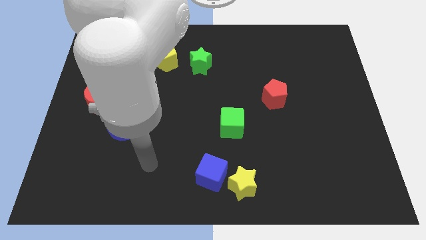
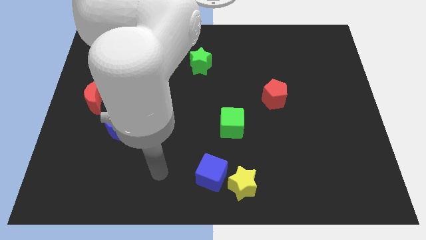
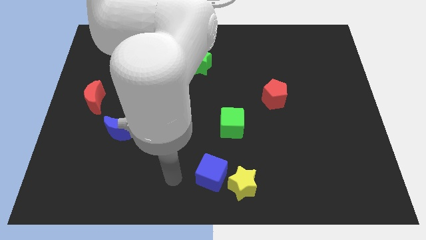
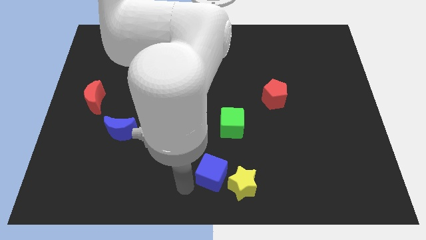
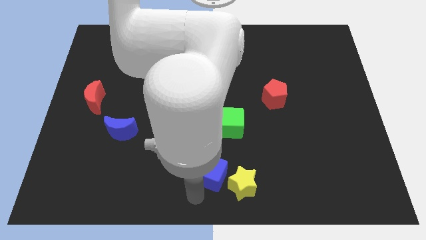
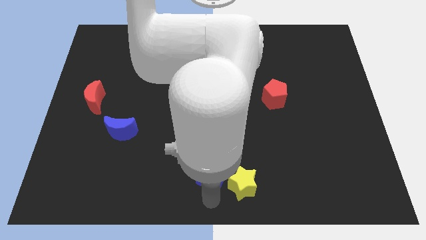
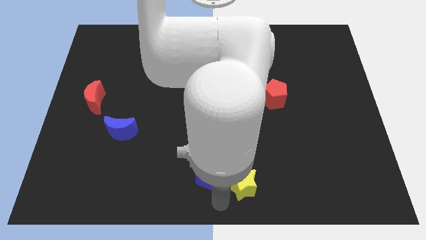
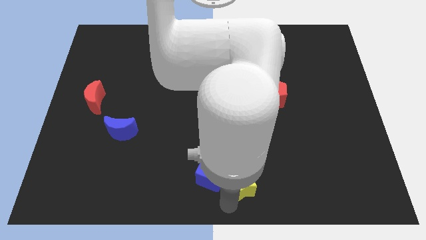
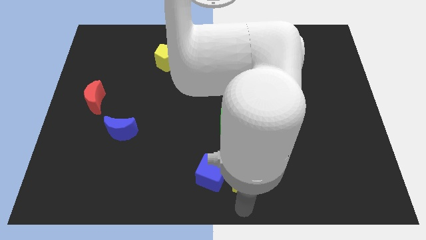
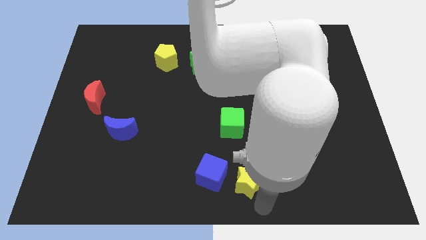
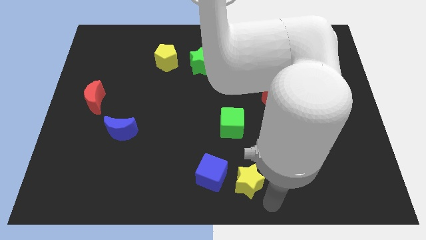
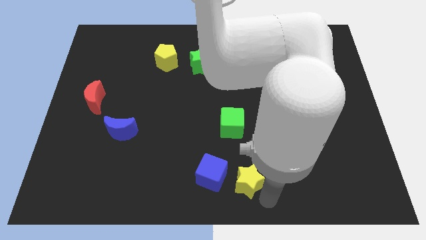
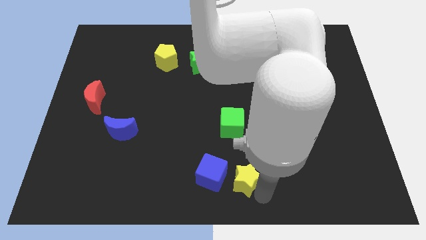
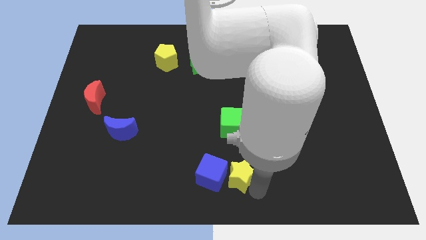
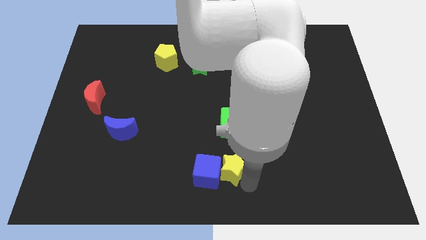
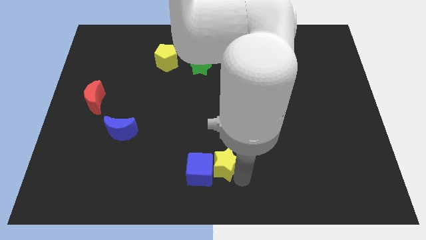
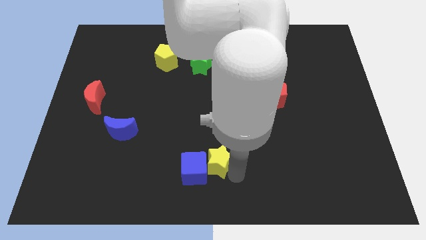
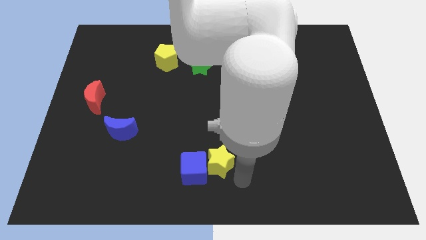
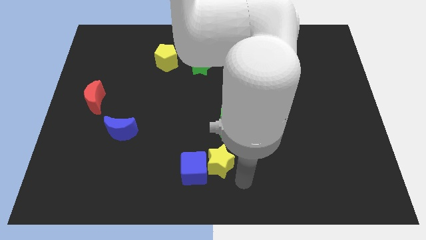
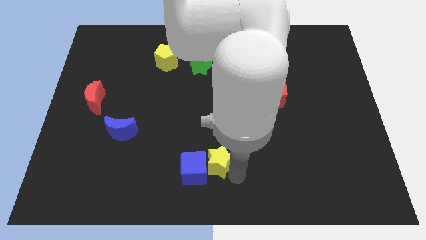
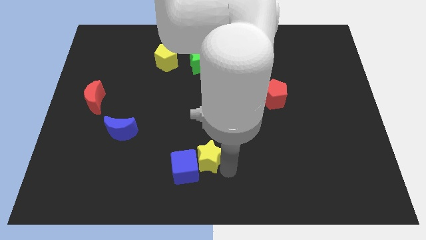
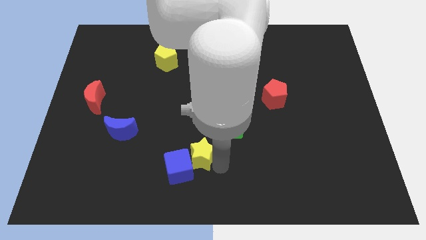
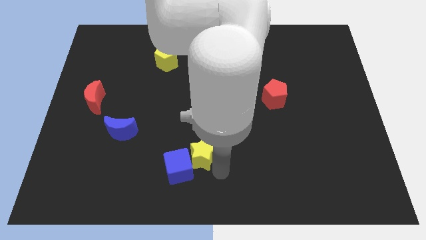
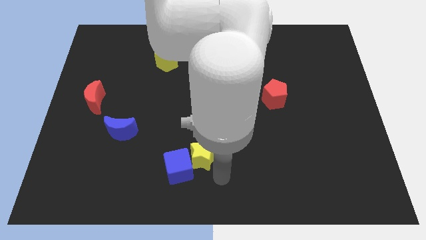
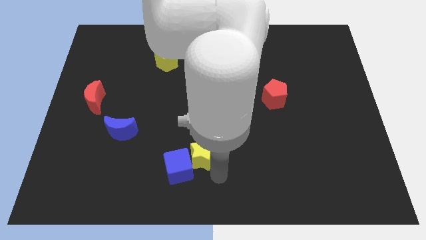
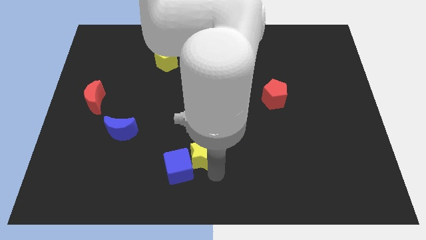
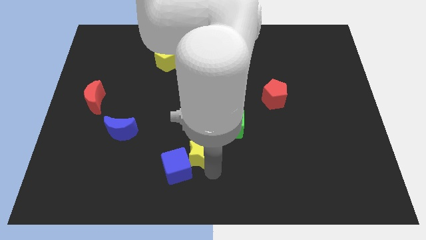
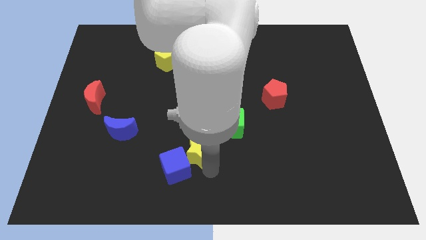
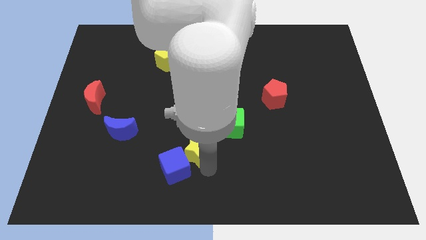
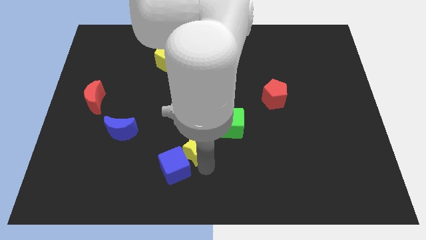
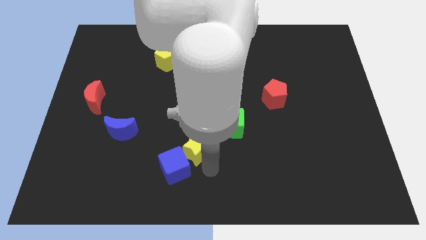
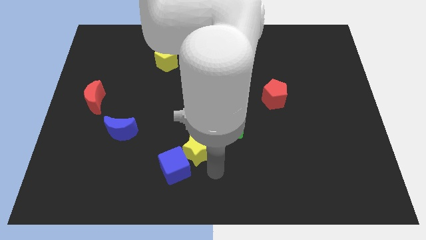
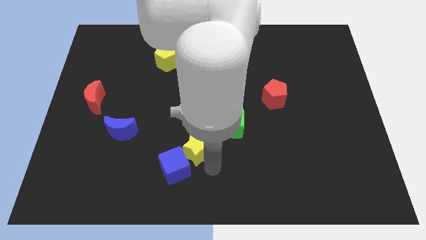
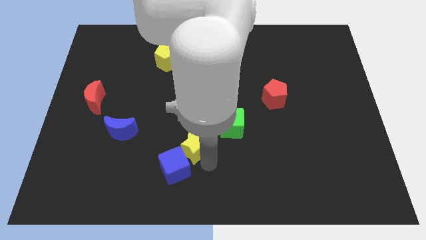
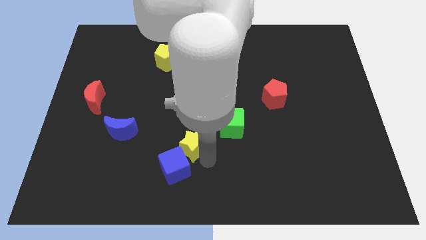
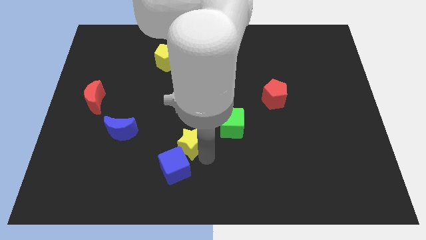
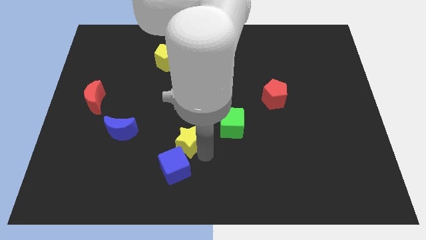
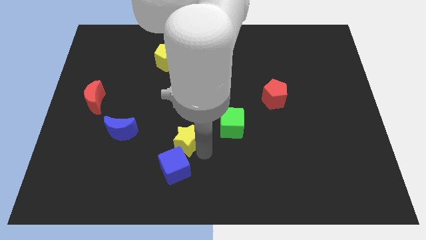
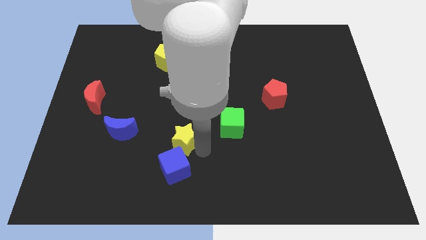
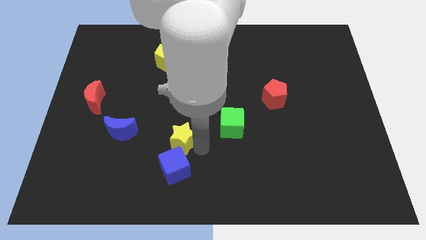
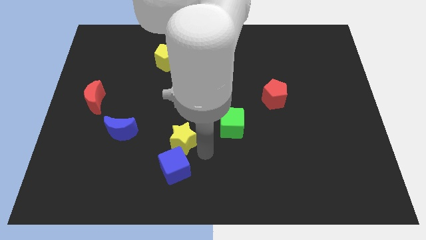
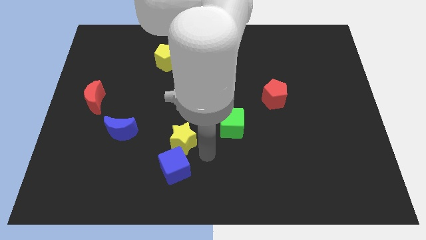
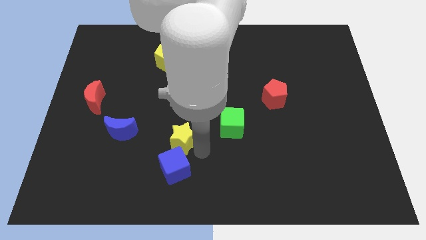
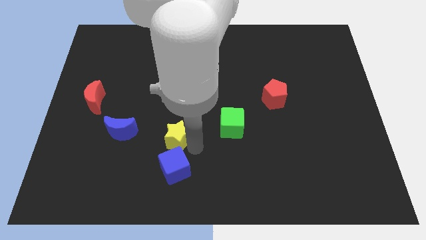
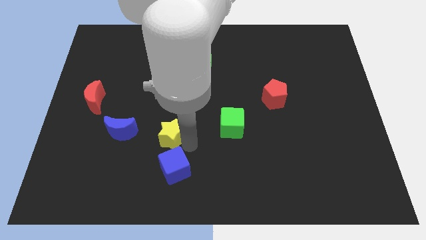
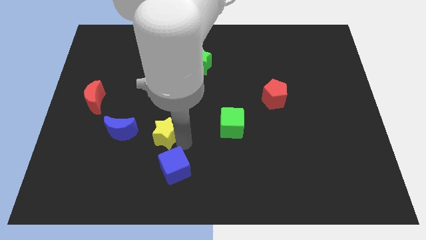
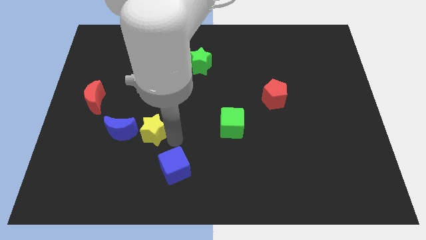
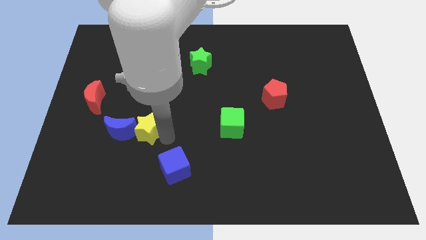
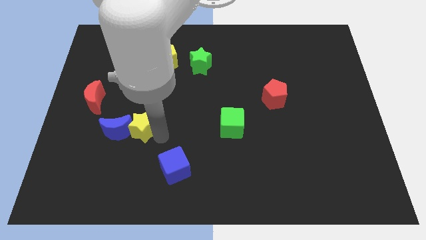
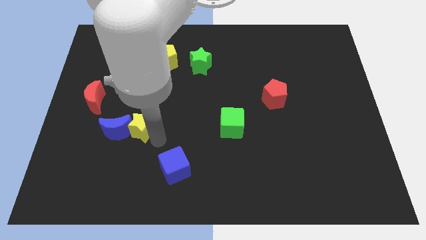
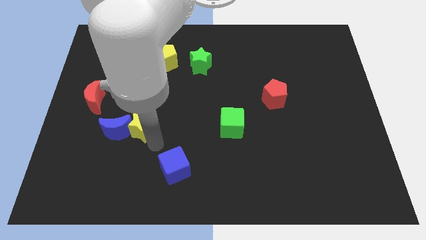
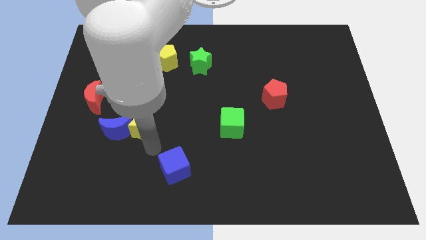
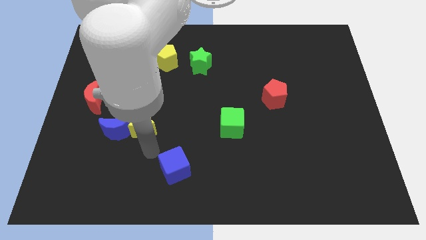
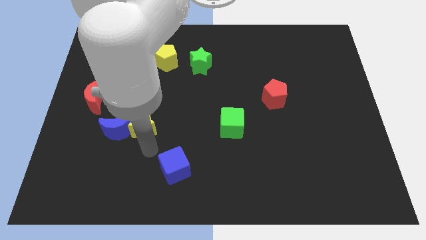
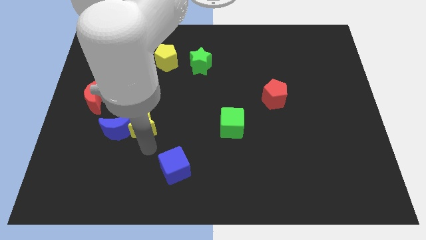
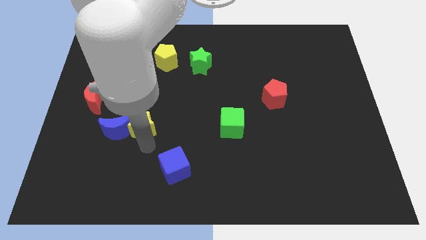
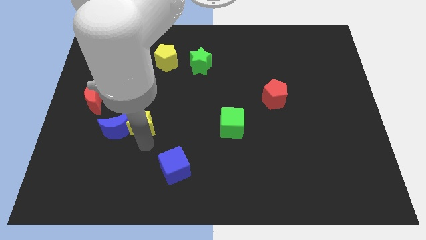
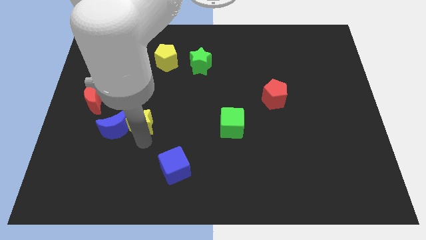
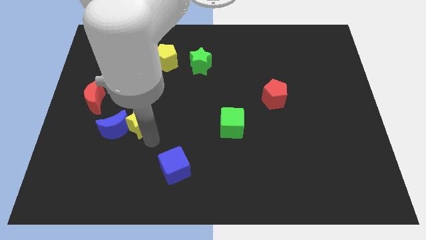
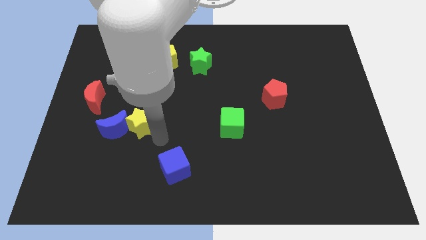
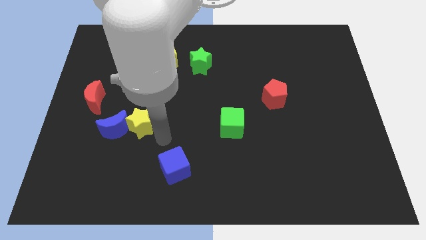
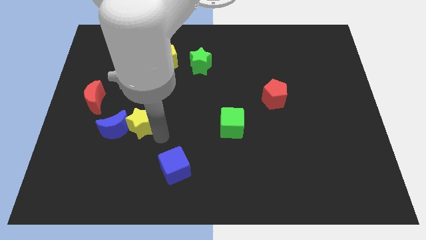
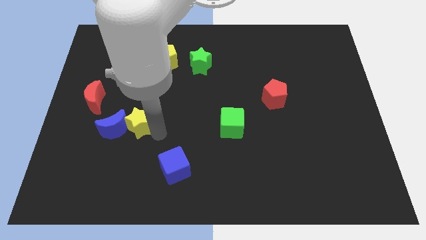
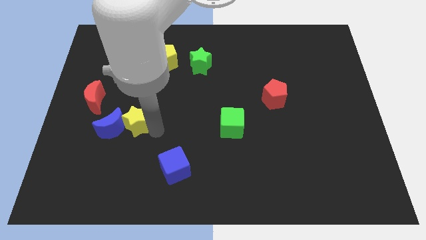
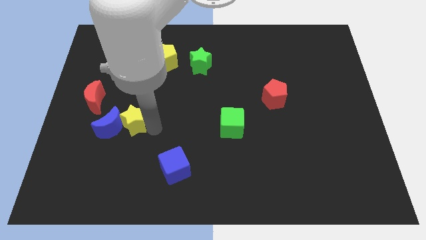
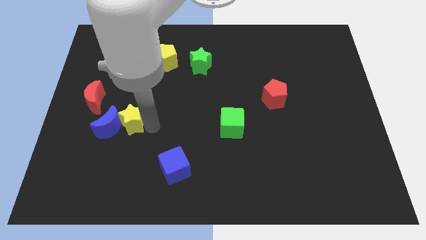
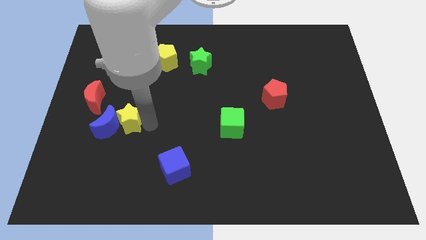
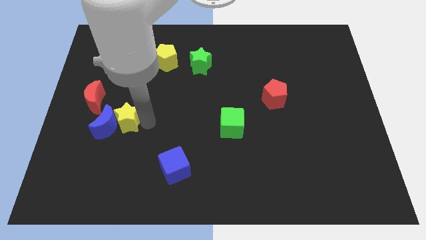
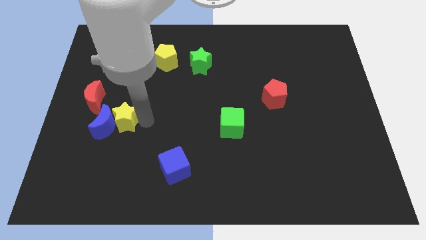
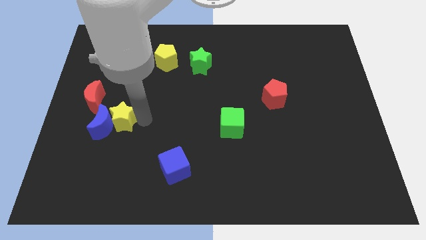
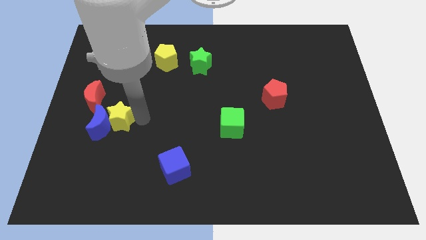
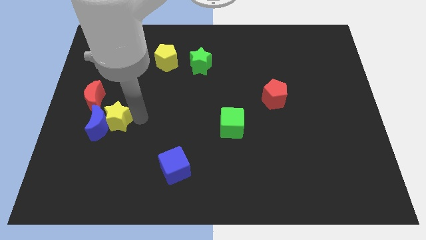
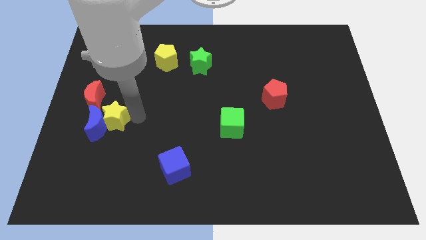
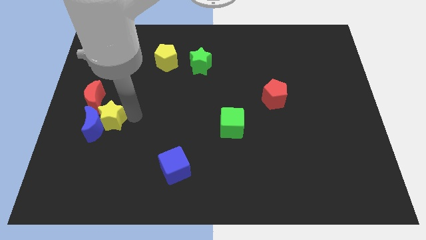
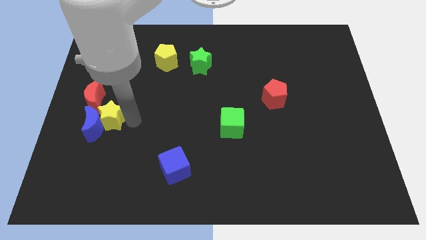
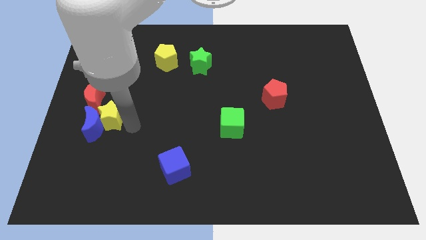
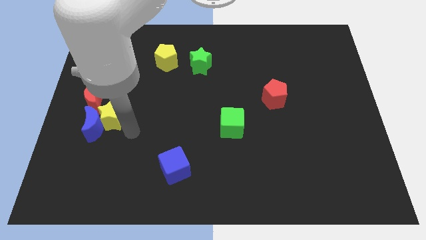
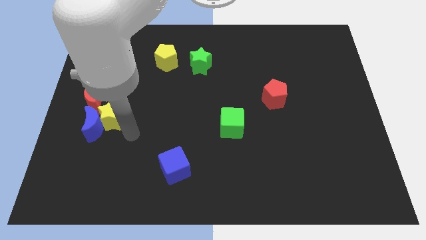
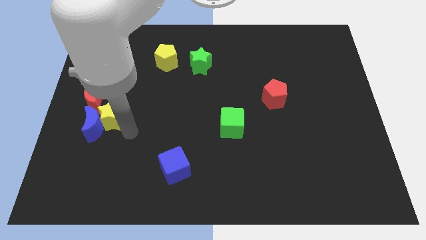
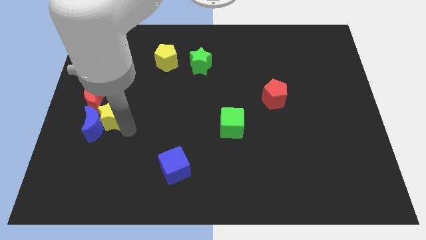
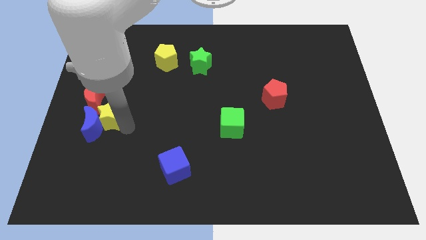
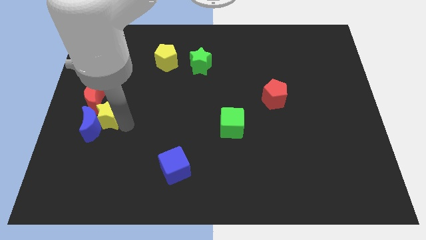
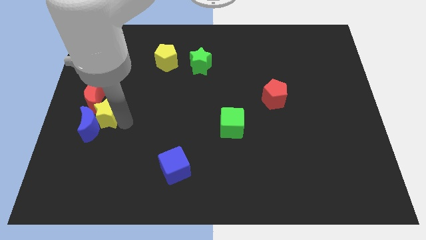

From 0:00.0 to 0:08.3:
put the yellow star to the red moon
